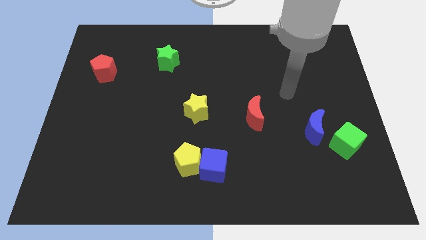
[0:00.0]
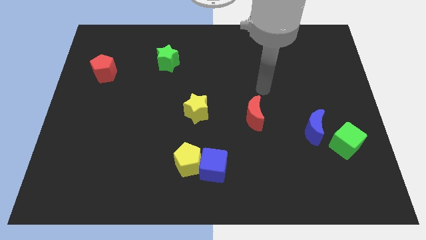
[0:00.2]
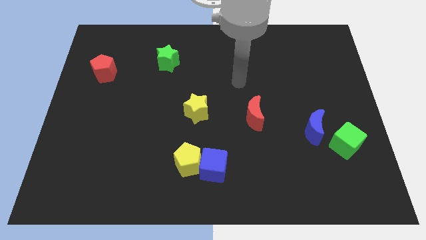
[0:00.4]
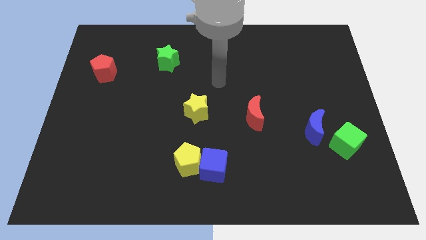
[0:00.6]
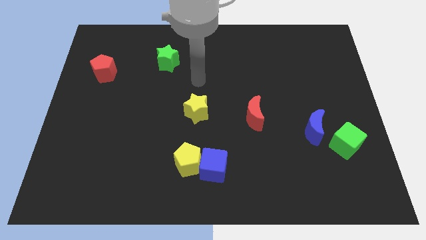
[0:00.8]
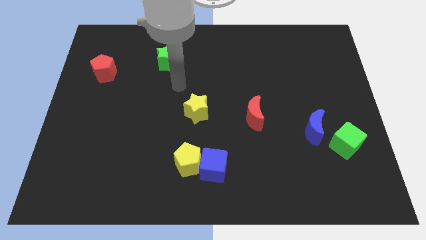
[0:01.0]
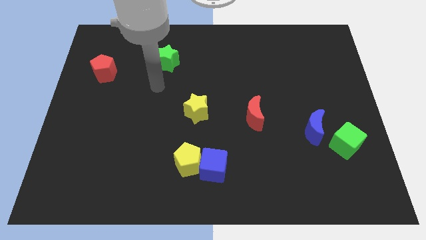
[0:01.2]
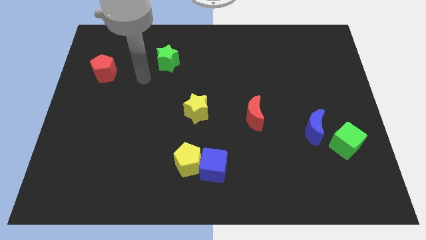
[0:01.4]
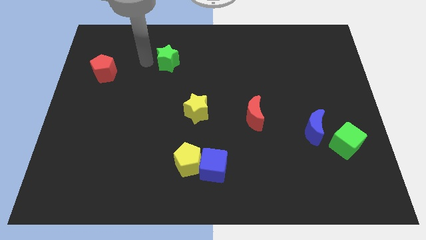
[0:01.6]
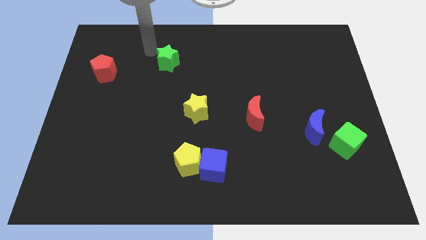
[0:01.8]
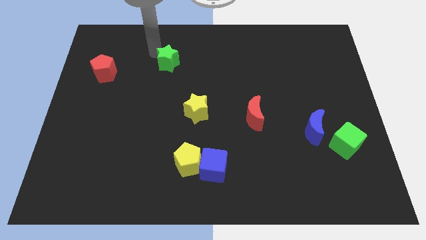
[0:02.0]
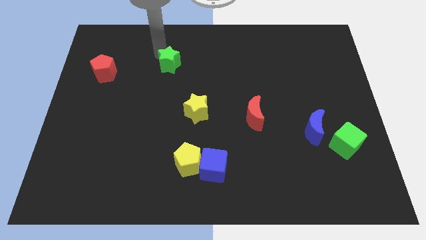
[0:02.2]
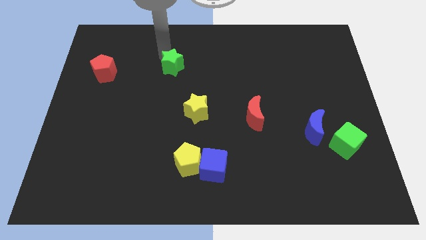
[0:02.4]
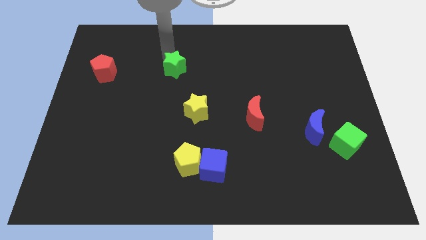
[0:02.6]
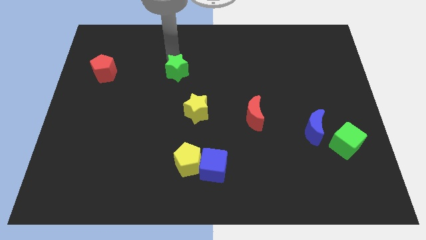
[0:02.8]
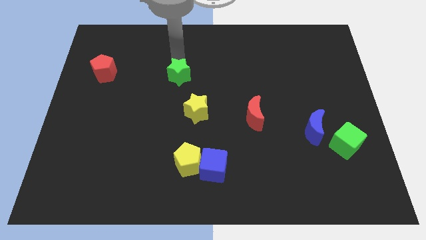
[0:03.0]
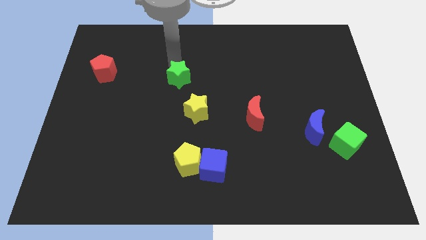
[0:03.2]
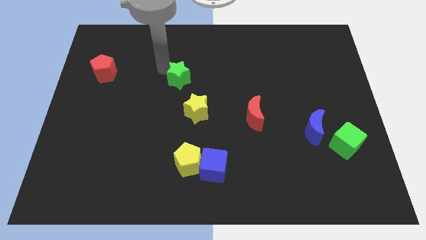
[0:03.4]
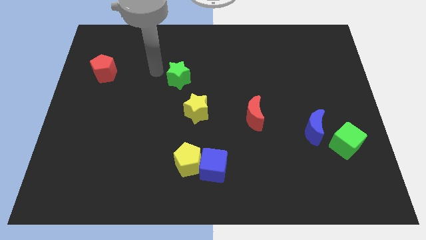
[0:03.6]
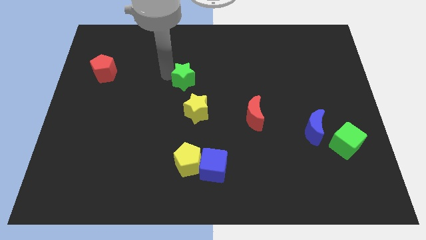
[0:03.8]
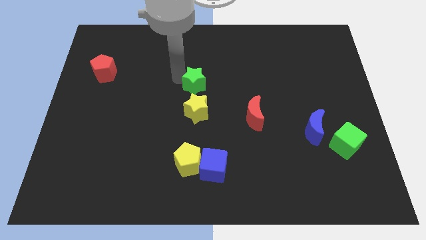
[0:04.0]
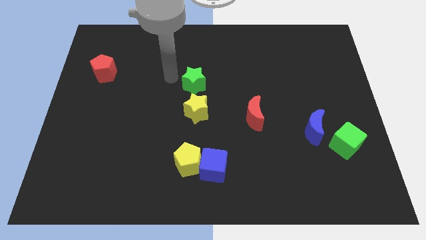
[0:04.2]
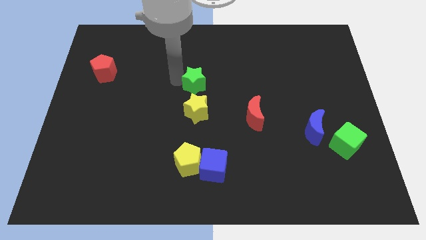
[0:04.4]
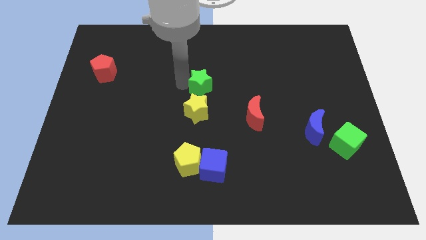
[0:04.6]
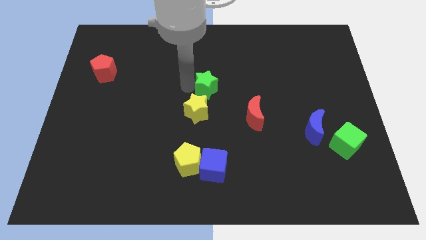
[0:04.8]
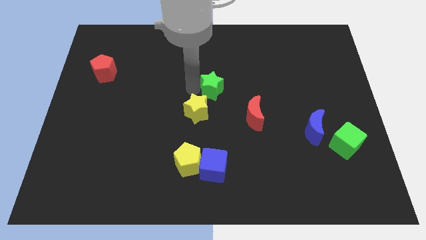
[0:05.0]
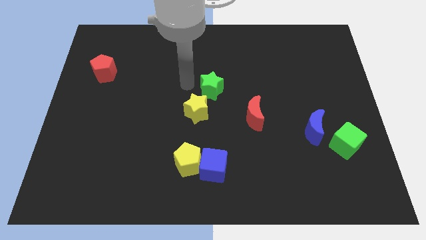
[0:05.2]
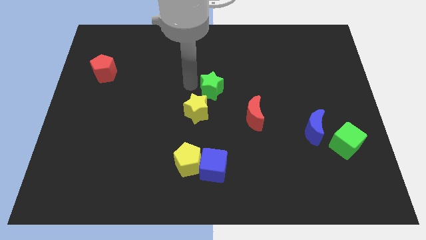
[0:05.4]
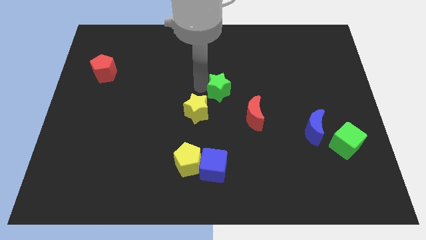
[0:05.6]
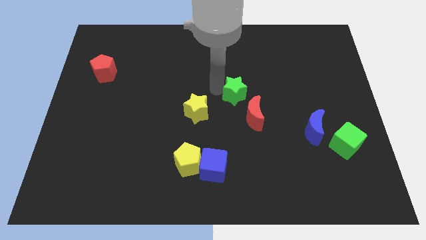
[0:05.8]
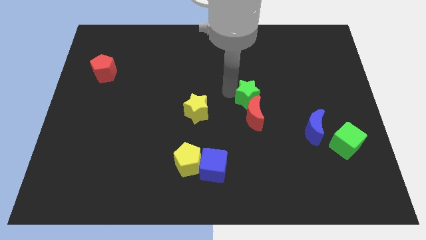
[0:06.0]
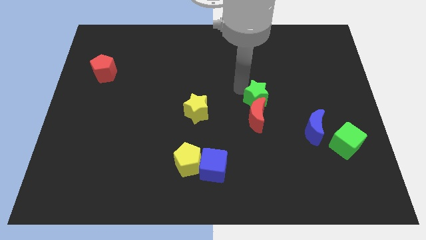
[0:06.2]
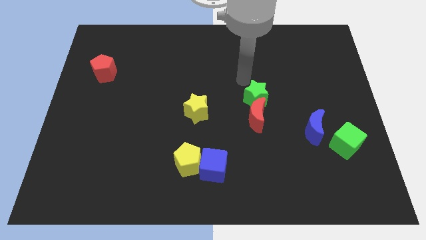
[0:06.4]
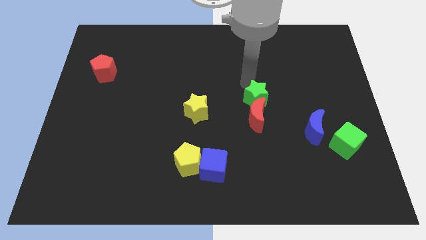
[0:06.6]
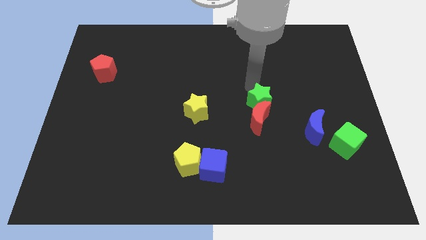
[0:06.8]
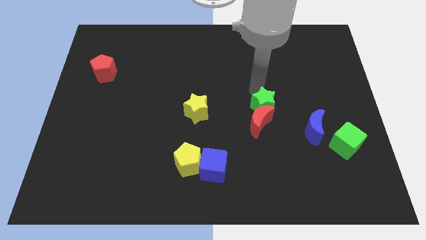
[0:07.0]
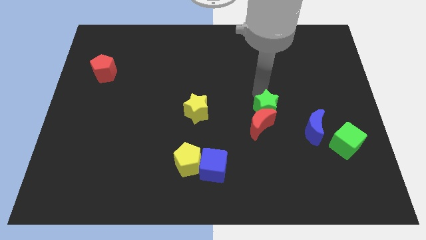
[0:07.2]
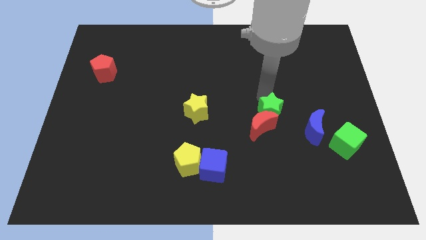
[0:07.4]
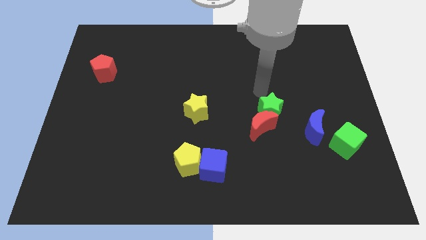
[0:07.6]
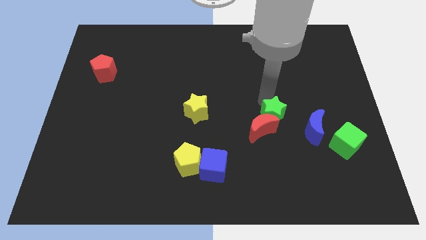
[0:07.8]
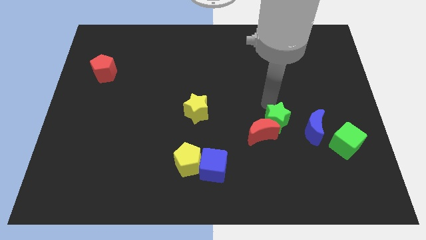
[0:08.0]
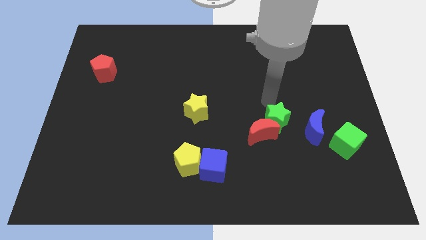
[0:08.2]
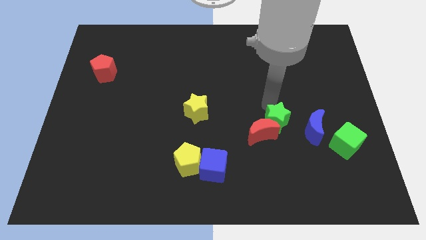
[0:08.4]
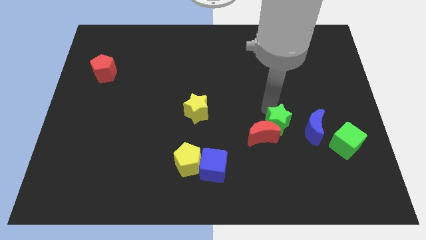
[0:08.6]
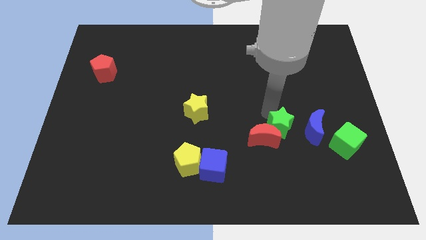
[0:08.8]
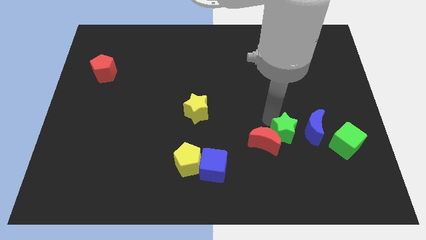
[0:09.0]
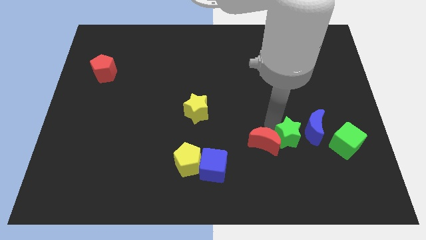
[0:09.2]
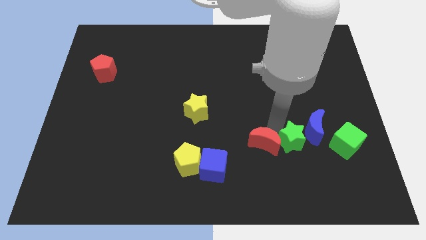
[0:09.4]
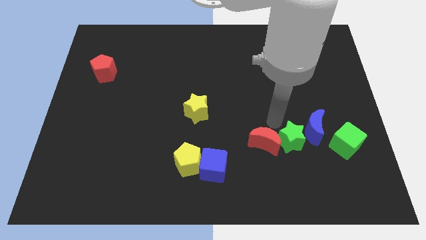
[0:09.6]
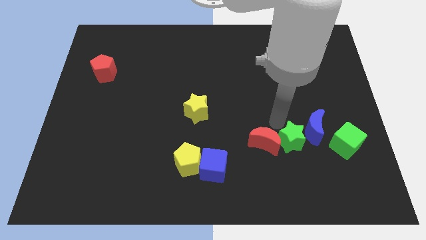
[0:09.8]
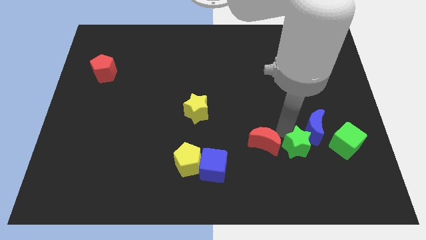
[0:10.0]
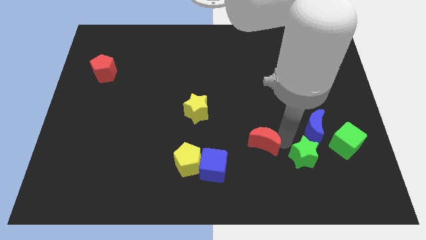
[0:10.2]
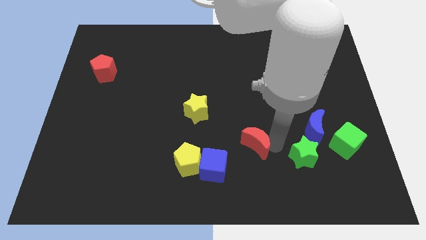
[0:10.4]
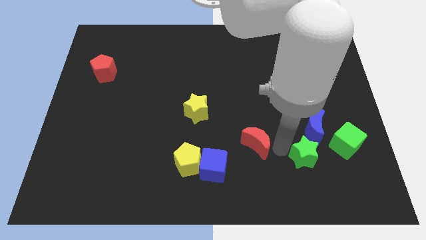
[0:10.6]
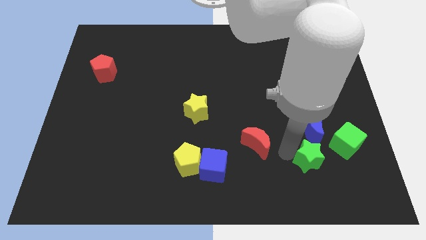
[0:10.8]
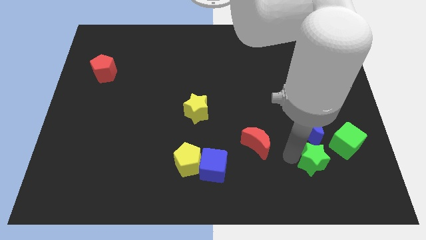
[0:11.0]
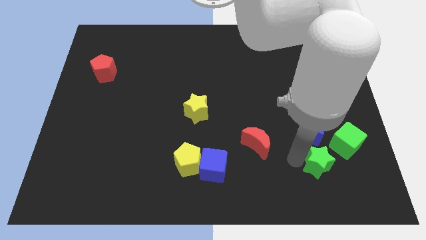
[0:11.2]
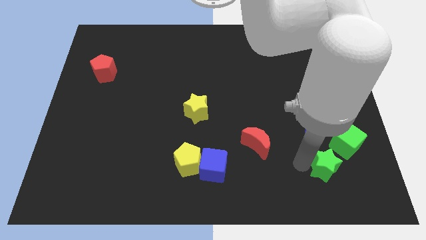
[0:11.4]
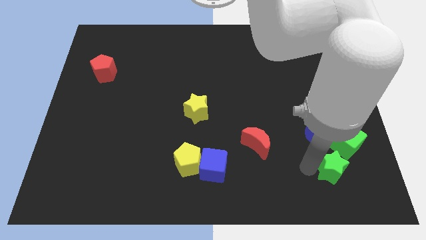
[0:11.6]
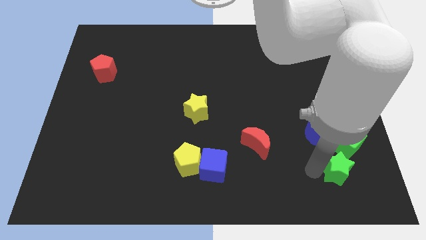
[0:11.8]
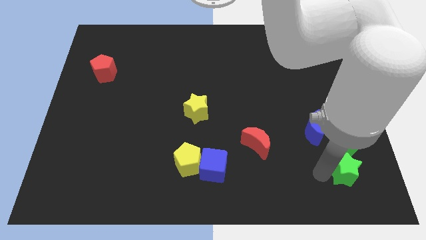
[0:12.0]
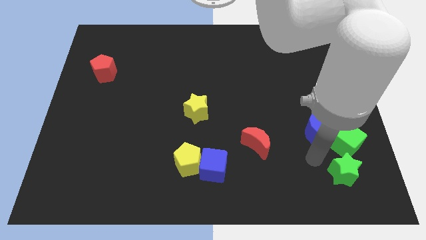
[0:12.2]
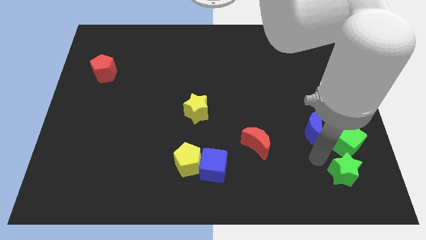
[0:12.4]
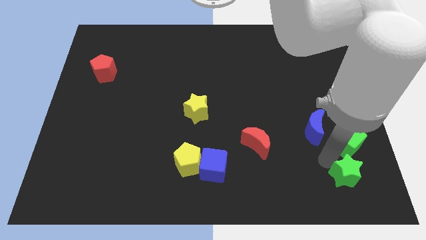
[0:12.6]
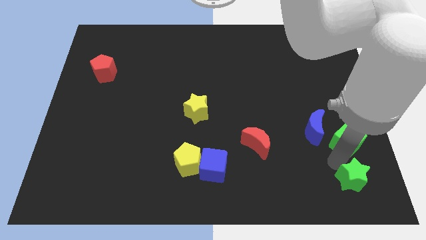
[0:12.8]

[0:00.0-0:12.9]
move the green star to the lower right corner
